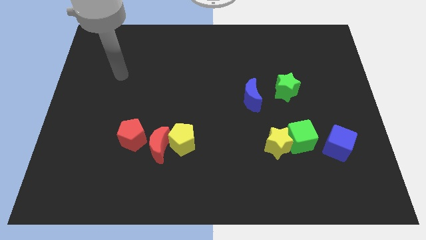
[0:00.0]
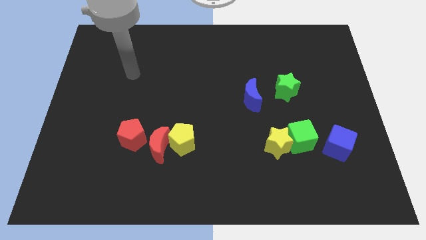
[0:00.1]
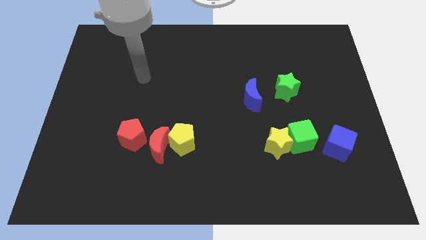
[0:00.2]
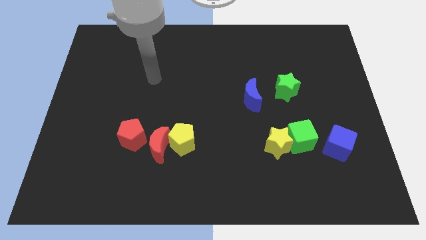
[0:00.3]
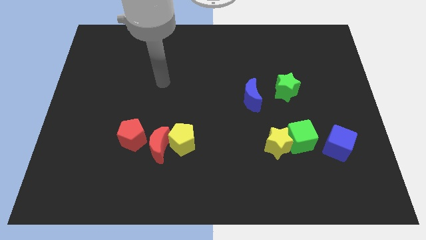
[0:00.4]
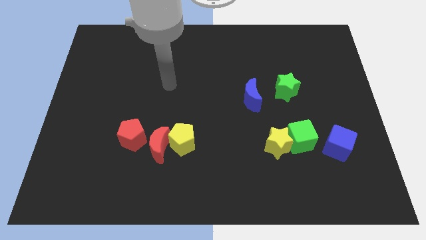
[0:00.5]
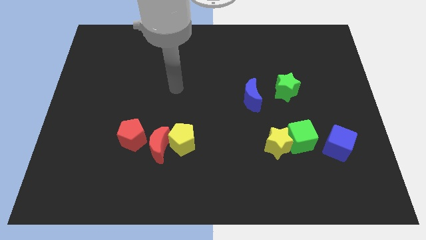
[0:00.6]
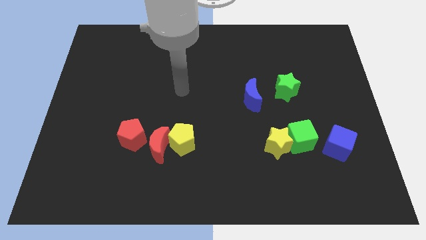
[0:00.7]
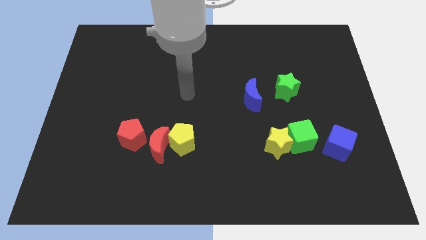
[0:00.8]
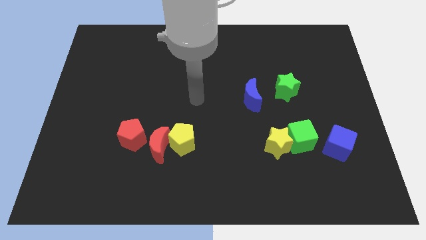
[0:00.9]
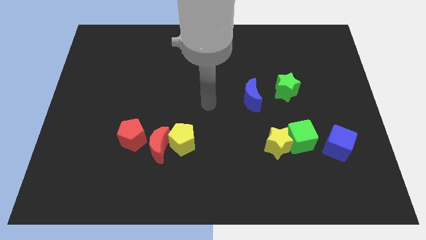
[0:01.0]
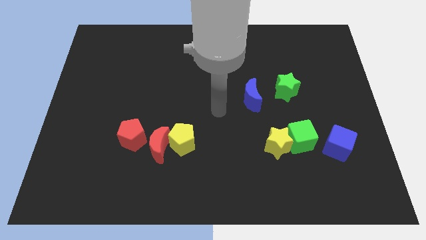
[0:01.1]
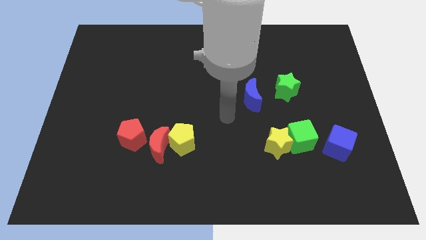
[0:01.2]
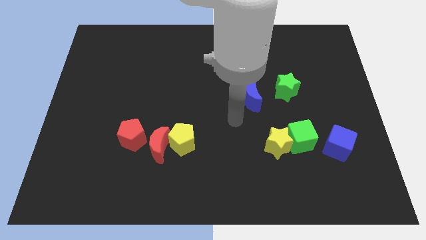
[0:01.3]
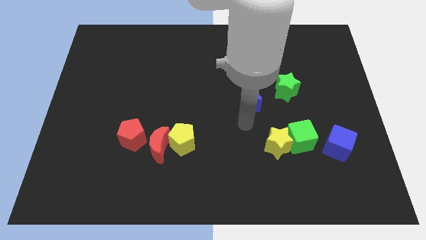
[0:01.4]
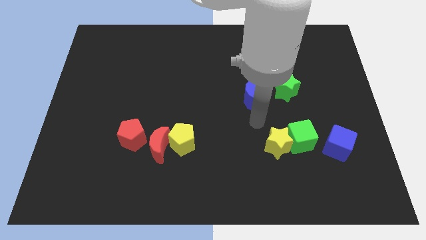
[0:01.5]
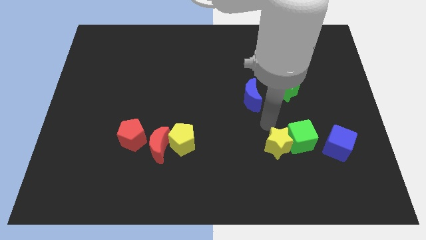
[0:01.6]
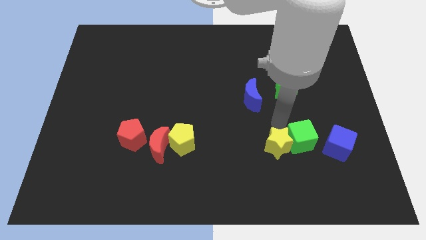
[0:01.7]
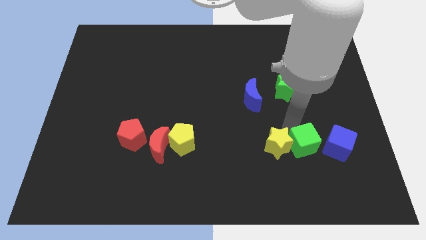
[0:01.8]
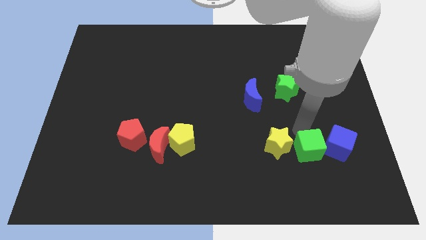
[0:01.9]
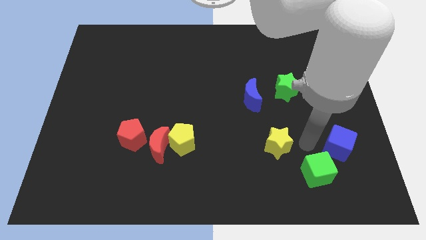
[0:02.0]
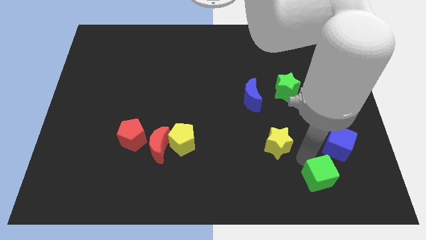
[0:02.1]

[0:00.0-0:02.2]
pull the yellow star apart from the green cube

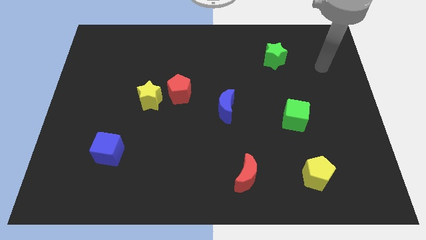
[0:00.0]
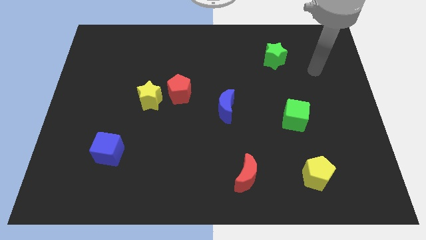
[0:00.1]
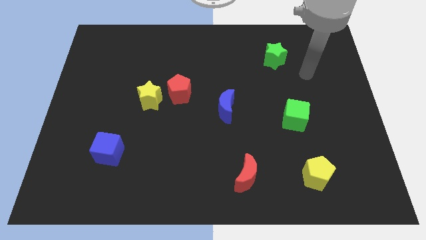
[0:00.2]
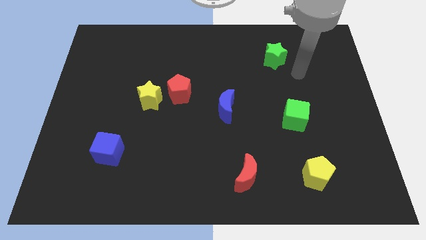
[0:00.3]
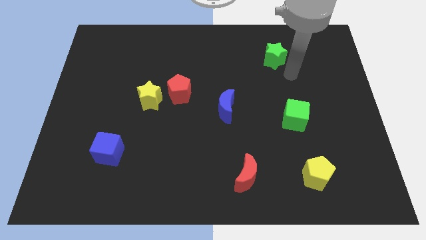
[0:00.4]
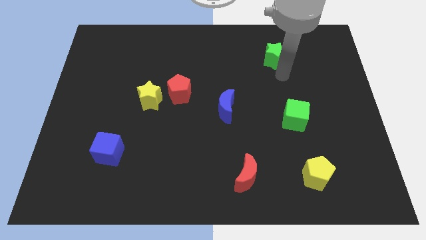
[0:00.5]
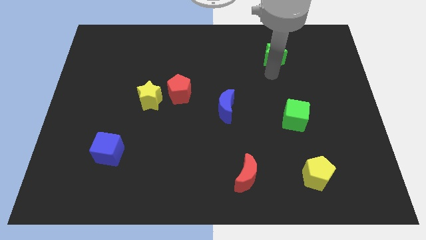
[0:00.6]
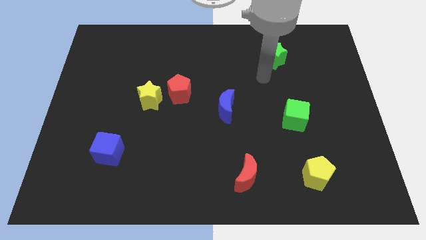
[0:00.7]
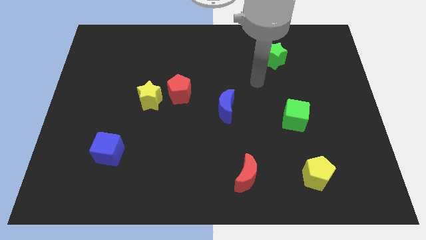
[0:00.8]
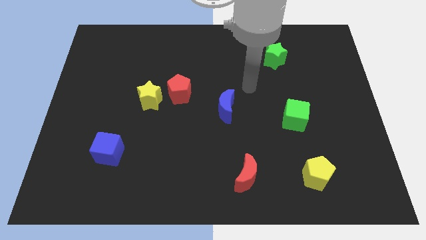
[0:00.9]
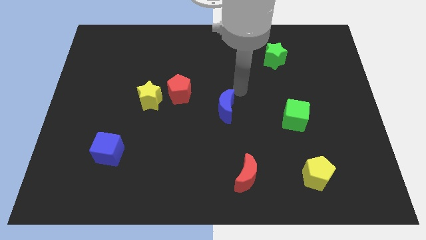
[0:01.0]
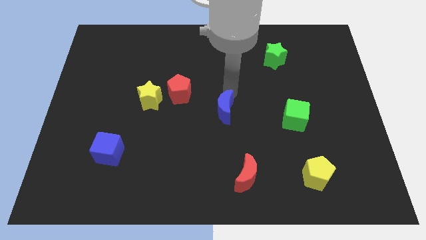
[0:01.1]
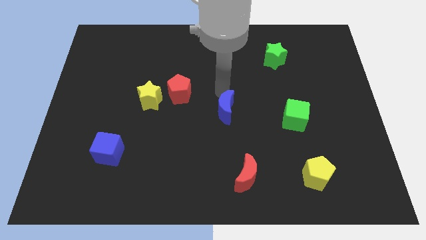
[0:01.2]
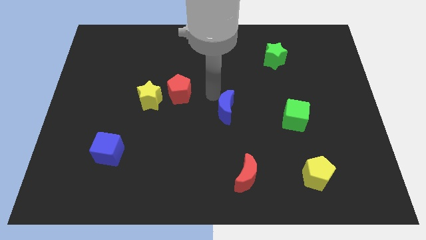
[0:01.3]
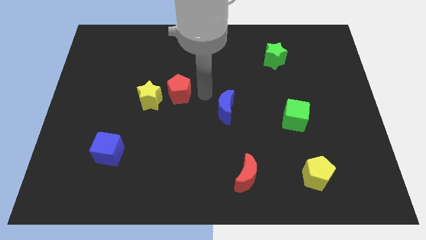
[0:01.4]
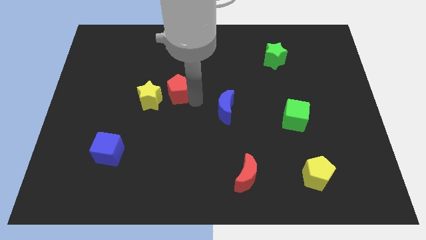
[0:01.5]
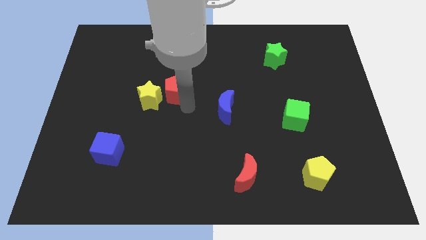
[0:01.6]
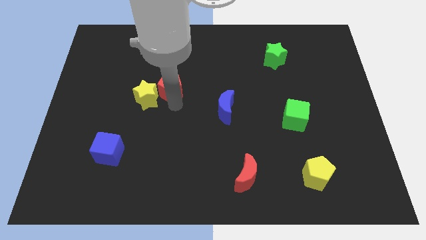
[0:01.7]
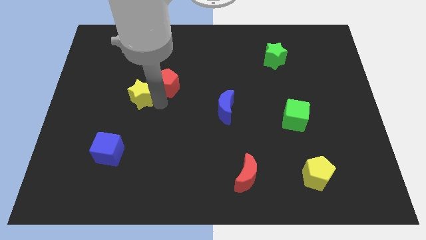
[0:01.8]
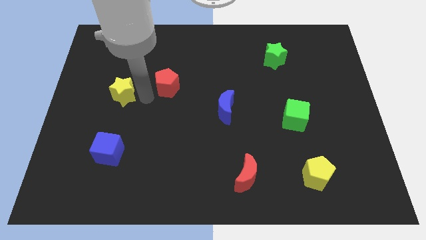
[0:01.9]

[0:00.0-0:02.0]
pull the red pentagon apart from the yellow star

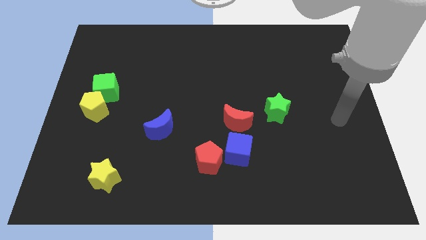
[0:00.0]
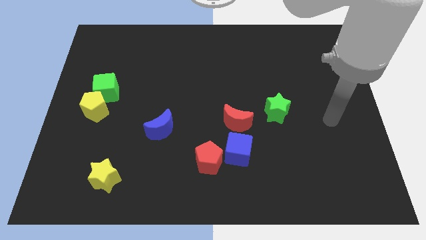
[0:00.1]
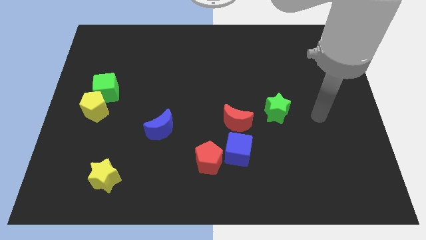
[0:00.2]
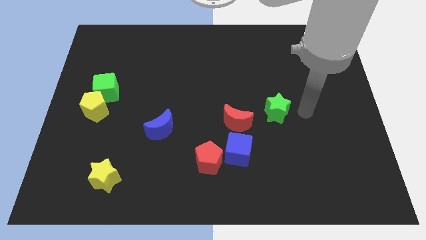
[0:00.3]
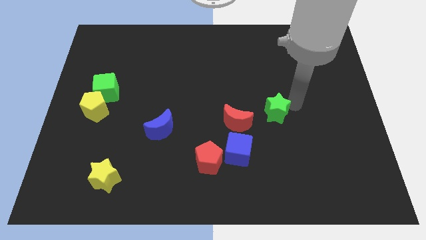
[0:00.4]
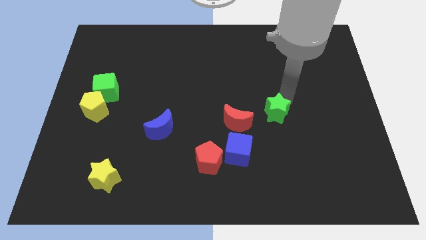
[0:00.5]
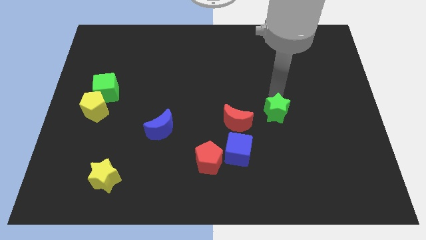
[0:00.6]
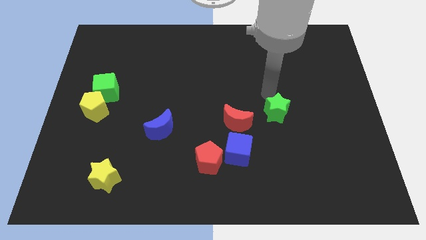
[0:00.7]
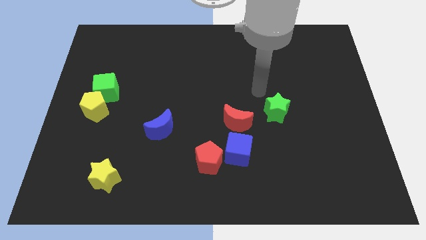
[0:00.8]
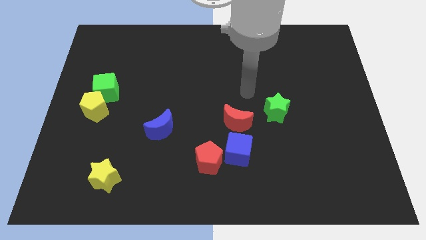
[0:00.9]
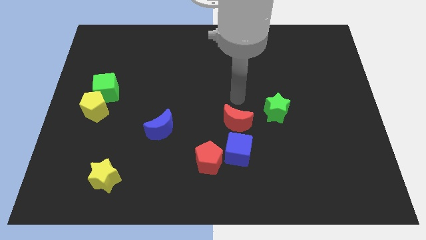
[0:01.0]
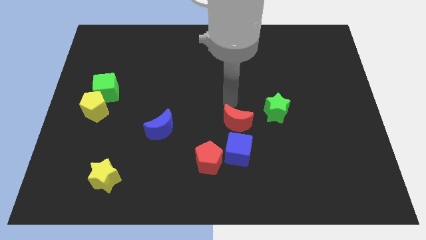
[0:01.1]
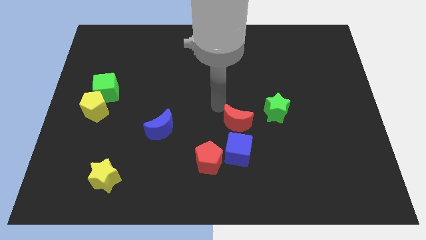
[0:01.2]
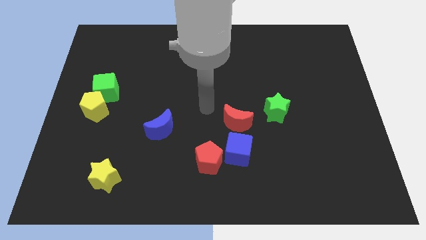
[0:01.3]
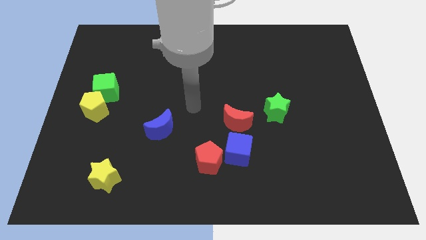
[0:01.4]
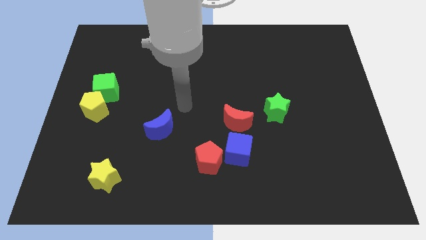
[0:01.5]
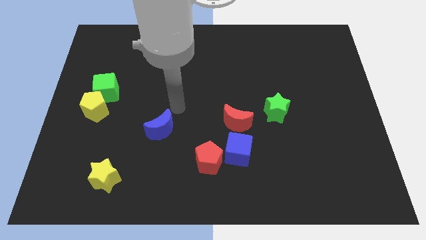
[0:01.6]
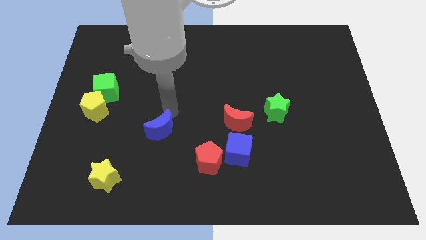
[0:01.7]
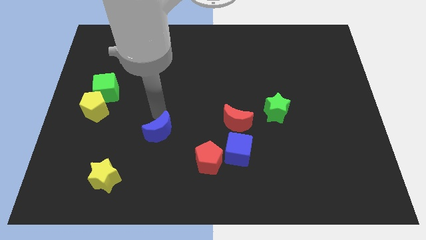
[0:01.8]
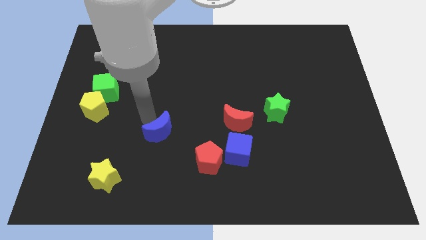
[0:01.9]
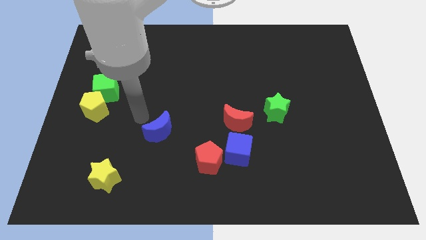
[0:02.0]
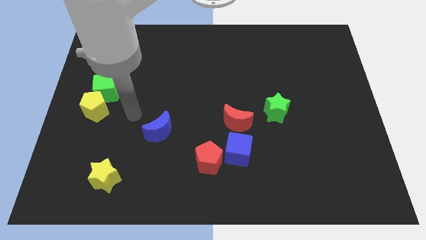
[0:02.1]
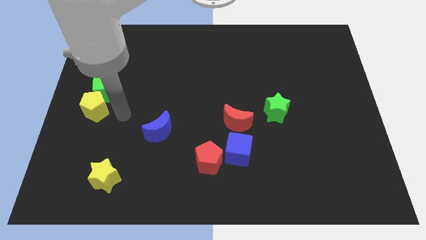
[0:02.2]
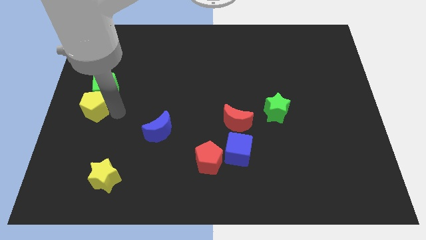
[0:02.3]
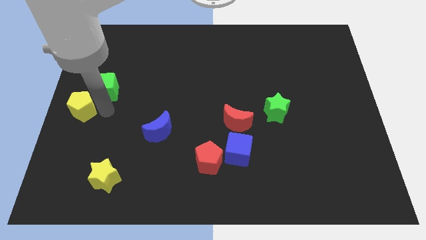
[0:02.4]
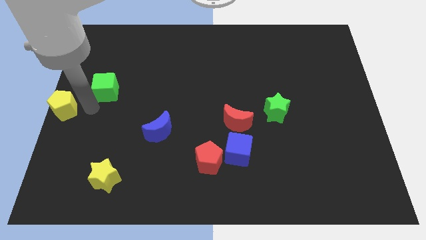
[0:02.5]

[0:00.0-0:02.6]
move the green cube away from the yellow pentagon

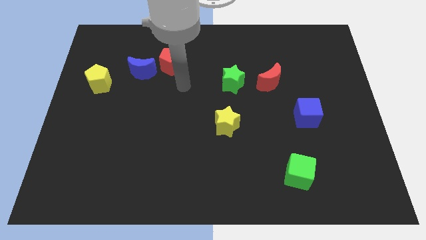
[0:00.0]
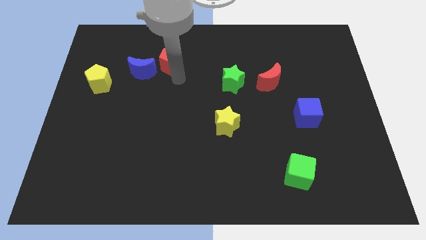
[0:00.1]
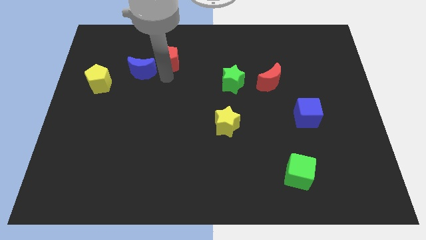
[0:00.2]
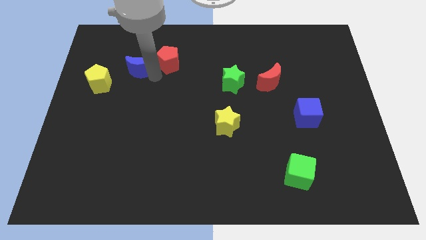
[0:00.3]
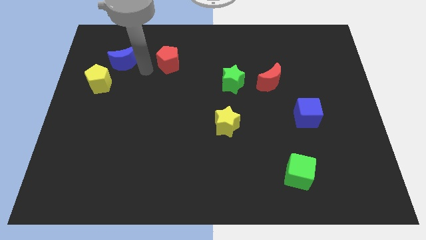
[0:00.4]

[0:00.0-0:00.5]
separate the red pentagon from the blue moon

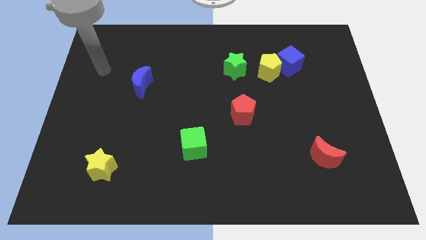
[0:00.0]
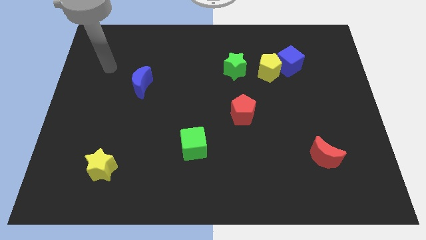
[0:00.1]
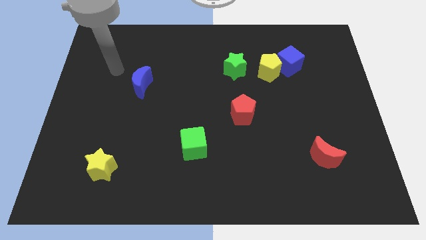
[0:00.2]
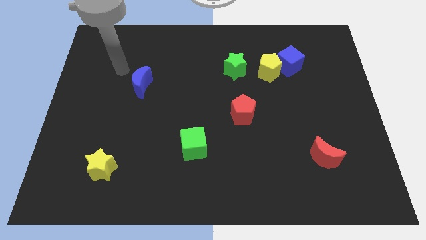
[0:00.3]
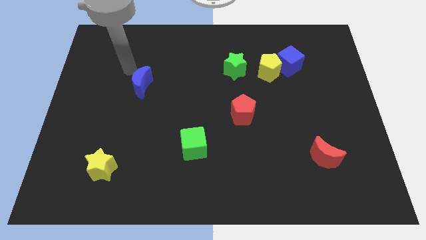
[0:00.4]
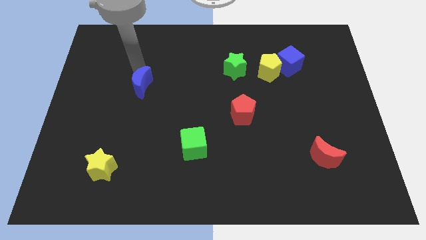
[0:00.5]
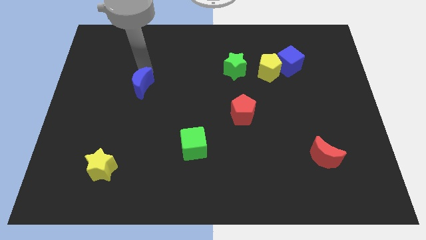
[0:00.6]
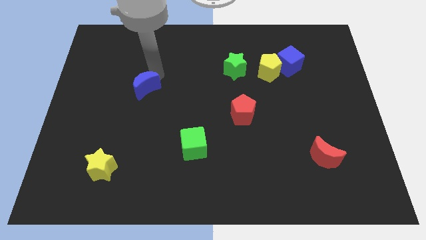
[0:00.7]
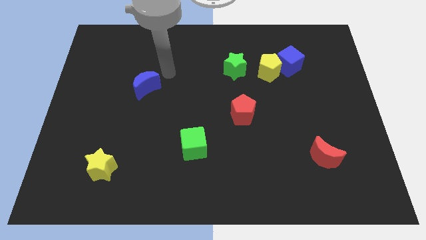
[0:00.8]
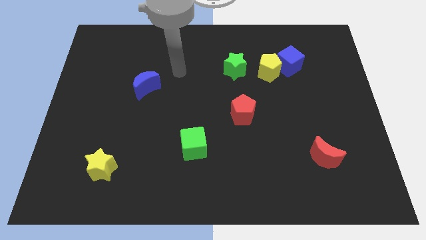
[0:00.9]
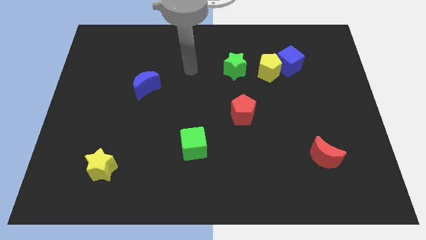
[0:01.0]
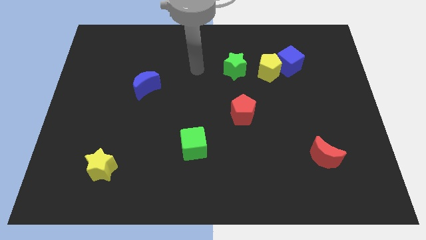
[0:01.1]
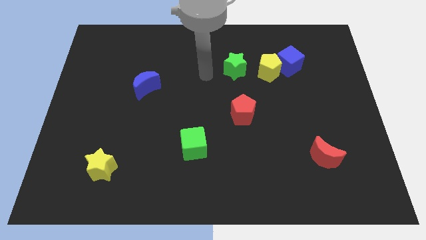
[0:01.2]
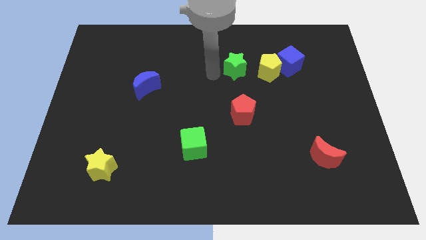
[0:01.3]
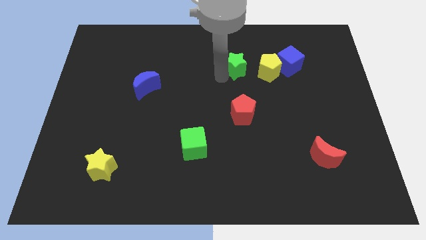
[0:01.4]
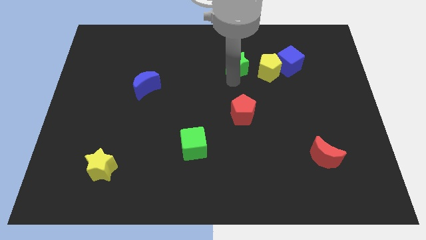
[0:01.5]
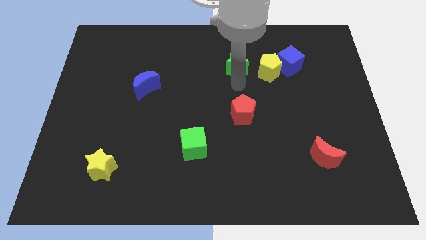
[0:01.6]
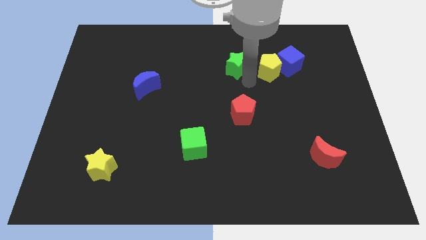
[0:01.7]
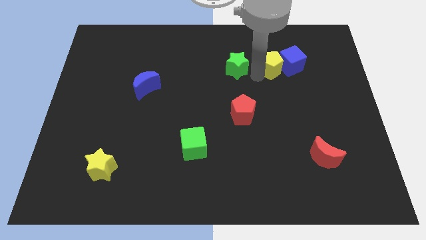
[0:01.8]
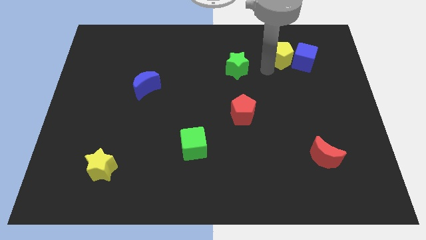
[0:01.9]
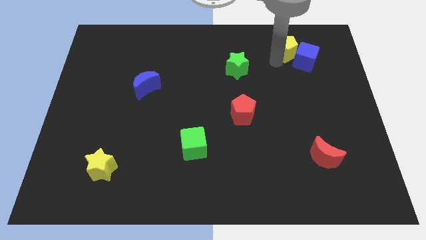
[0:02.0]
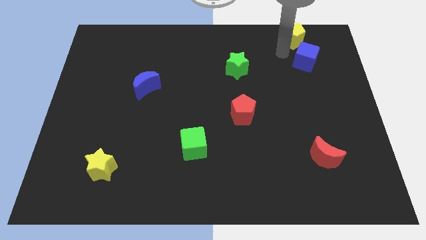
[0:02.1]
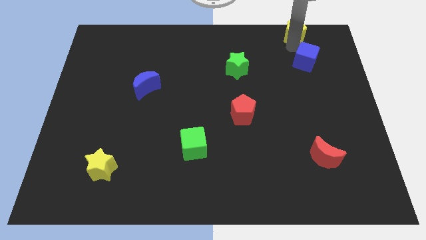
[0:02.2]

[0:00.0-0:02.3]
separate the blue cube from the yellow pentagon
